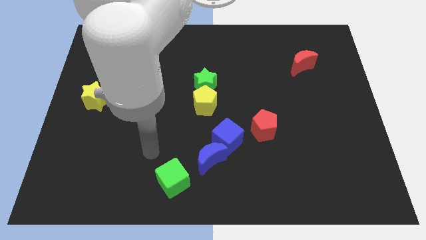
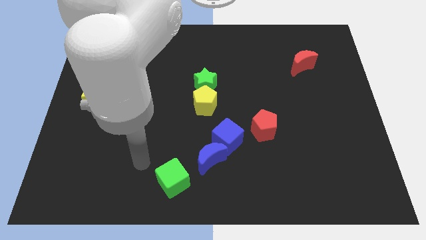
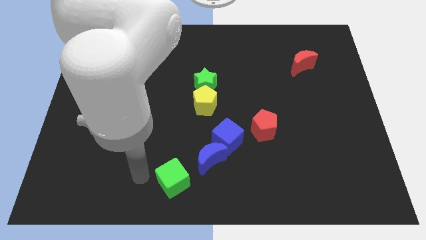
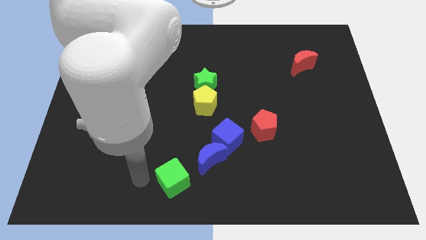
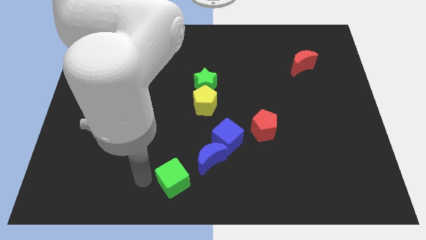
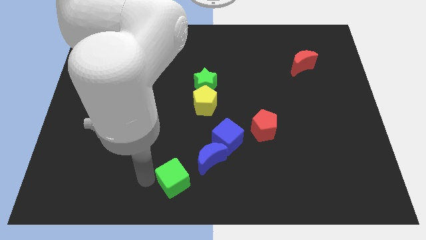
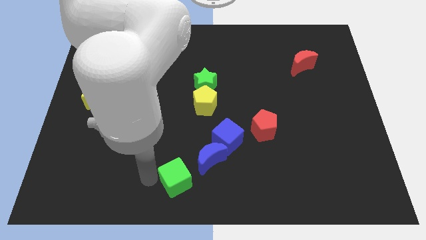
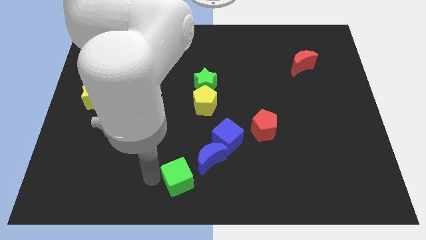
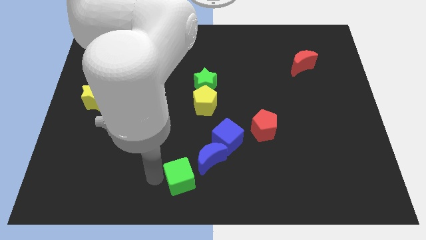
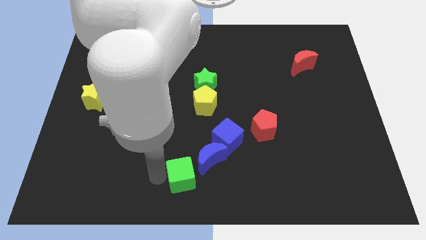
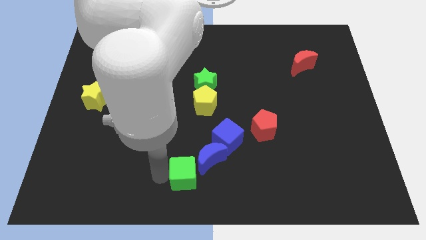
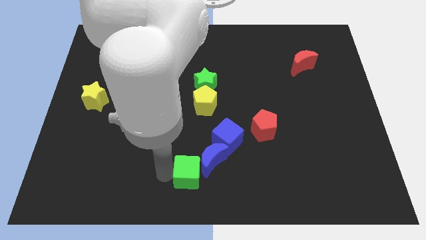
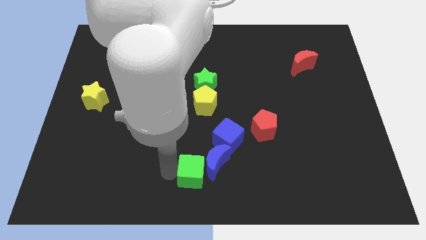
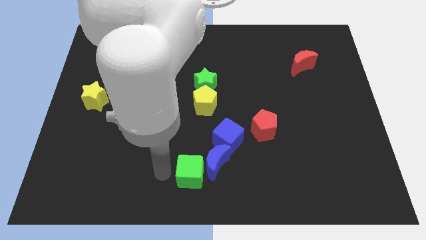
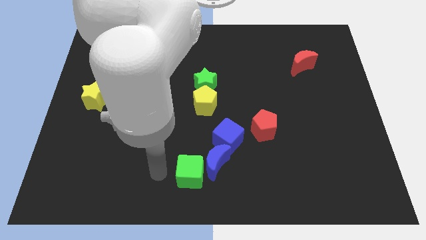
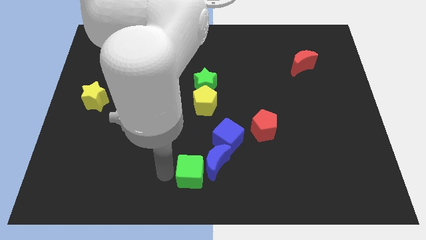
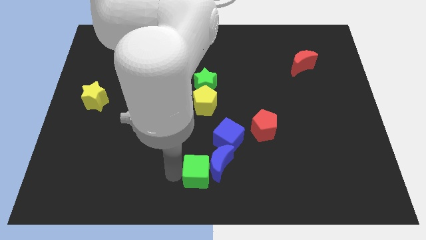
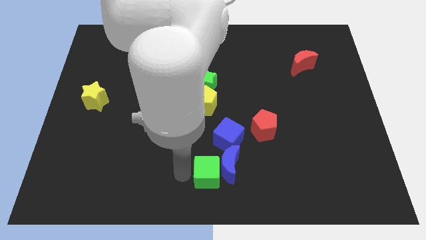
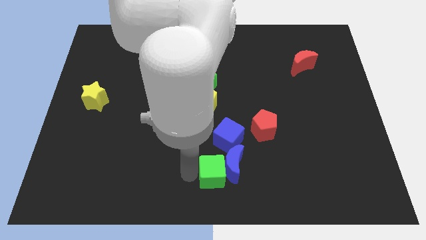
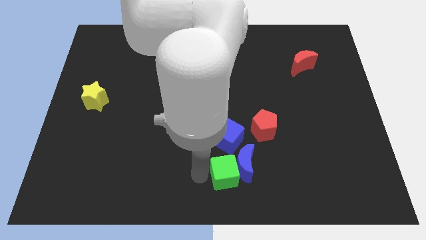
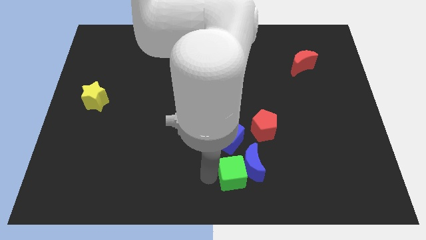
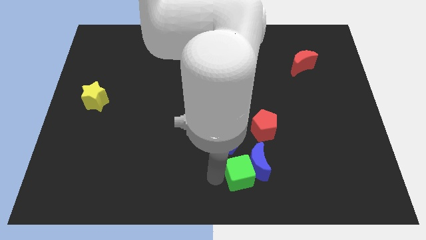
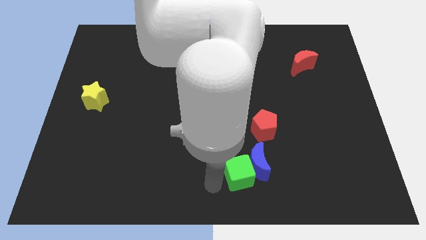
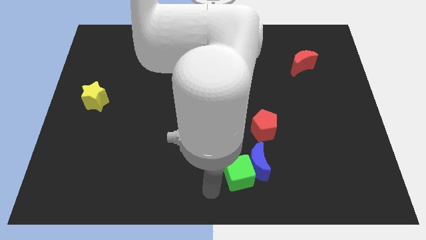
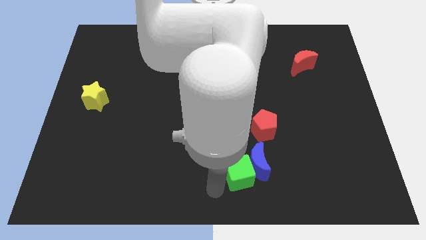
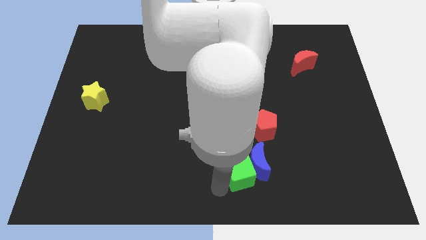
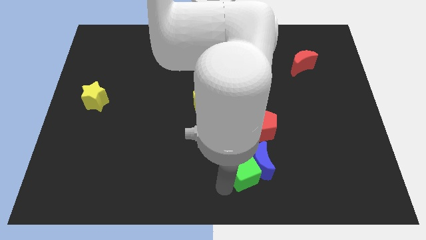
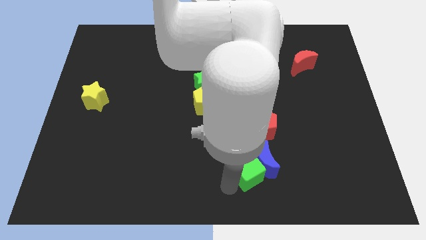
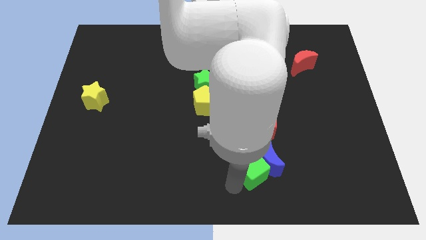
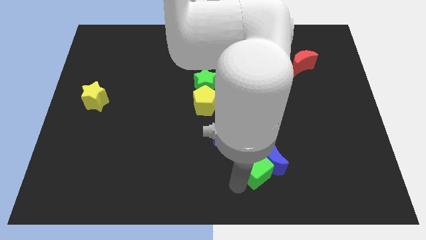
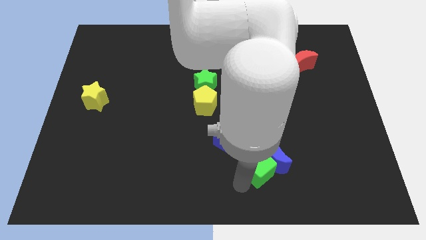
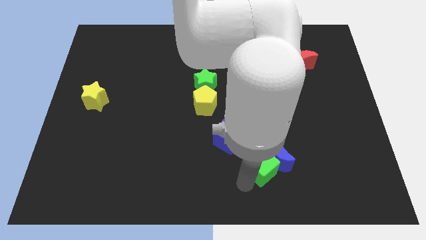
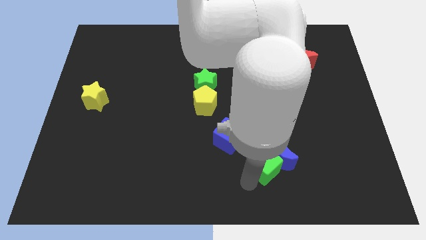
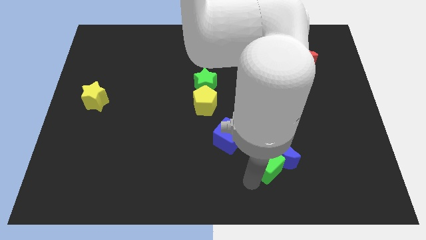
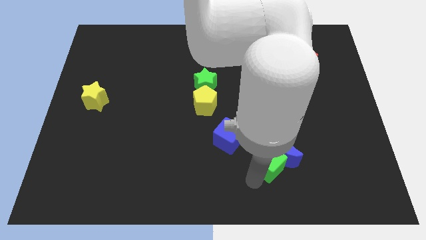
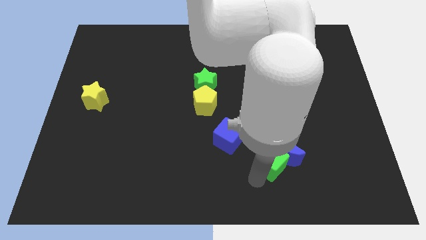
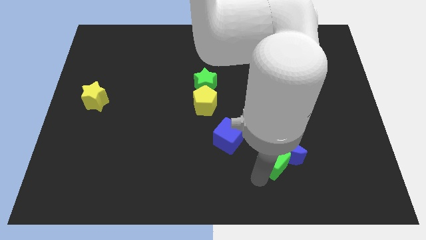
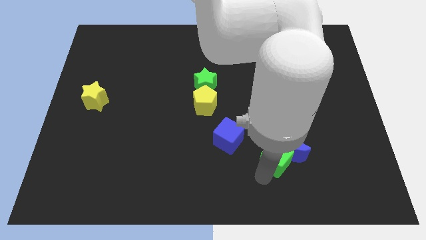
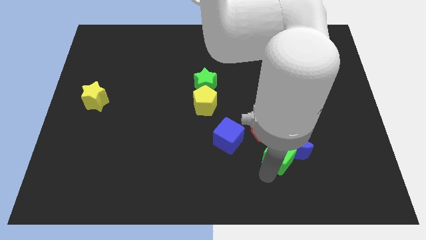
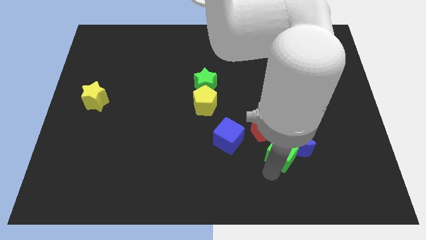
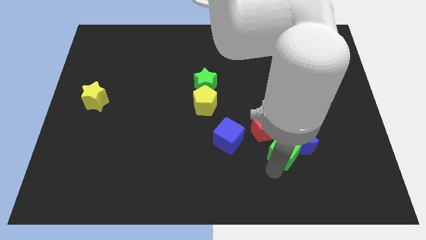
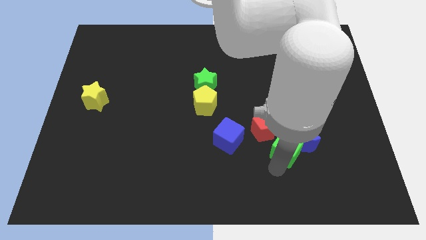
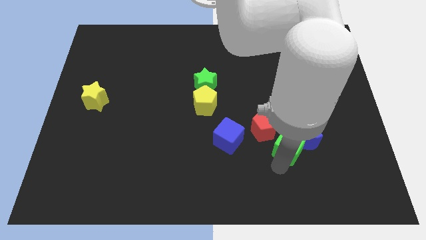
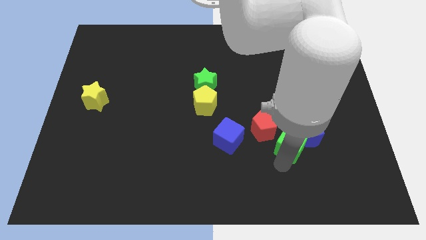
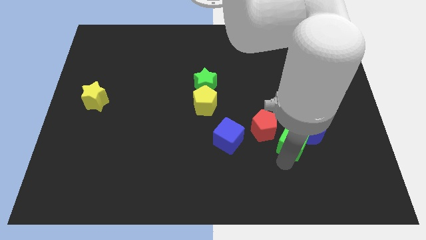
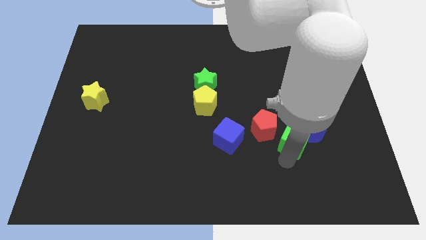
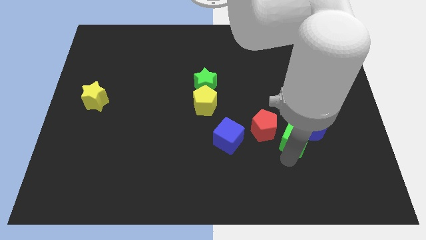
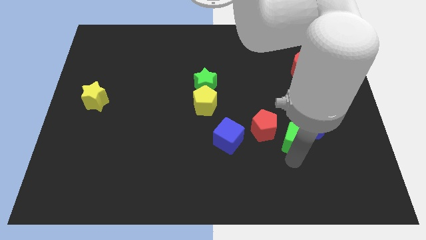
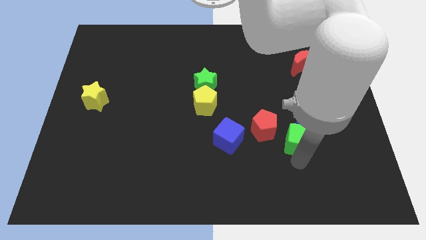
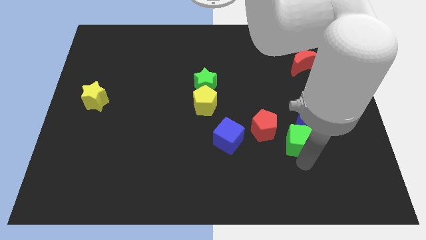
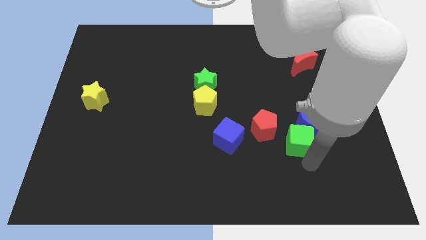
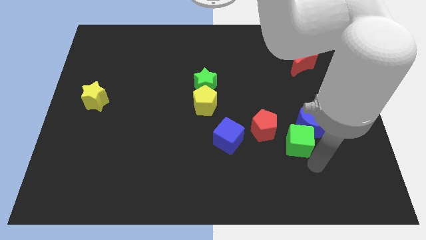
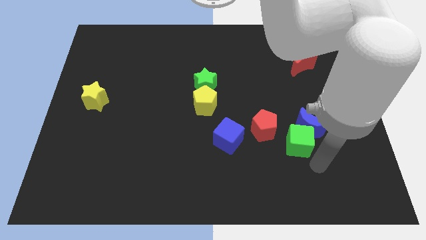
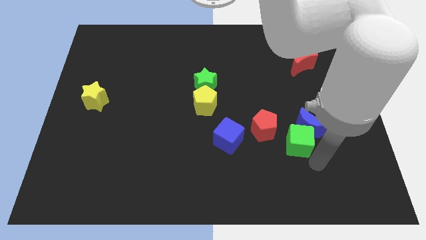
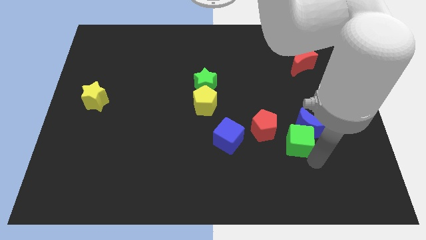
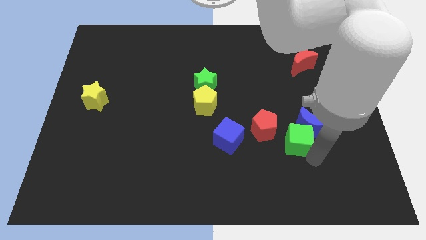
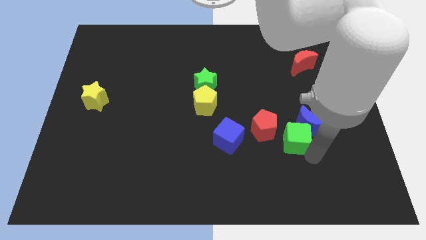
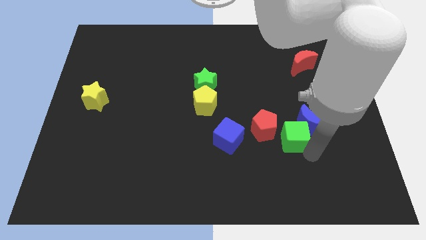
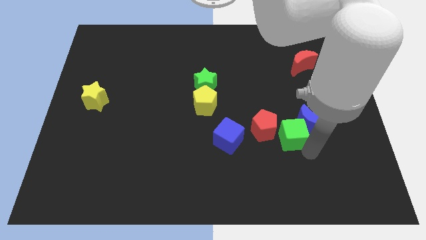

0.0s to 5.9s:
push the green cube up and to the right diagonally

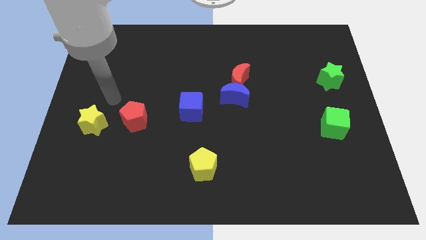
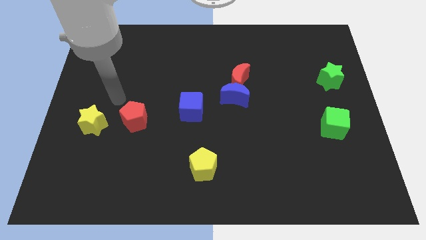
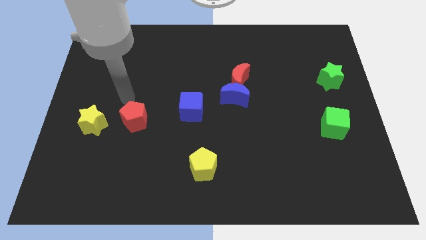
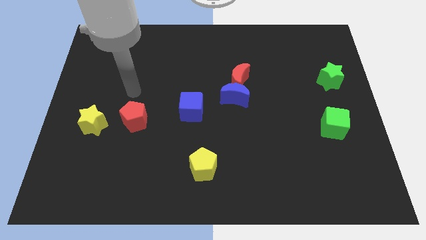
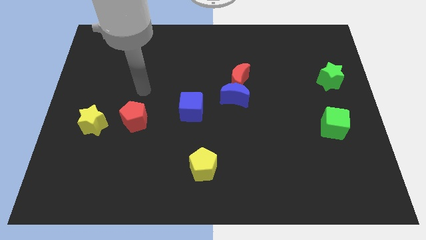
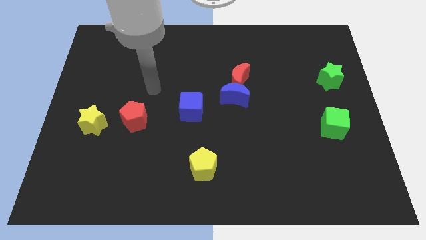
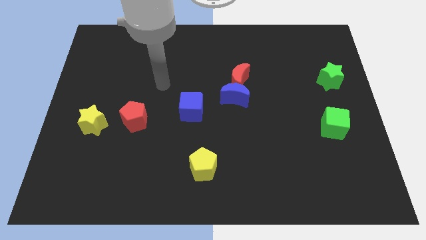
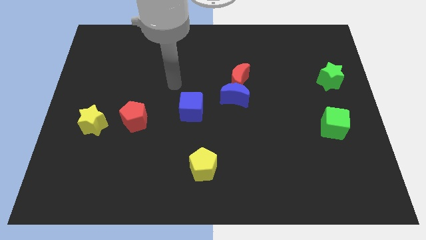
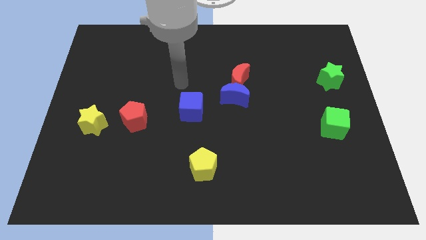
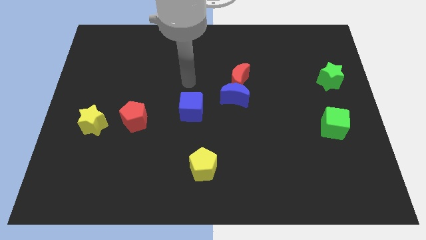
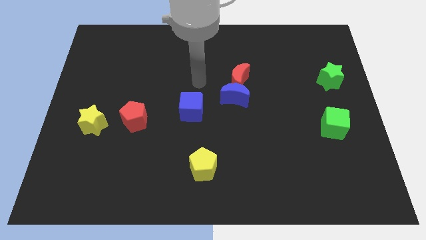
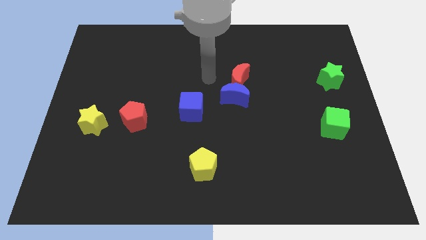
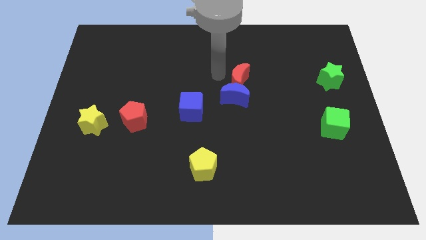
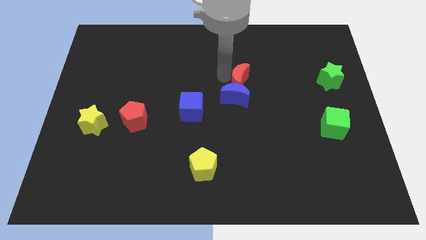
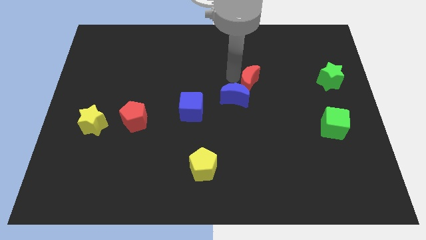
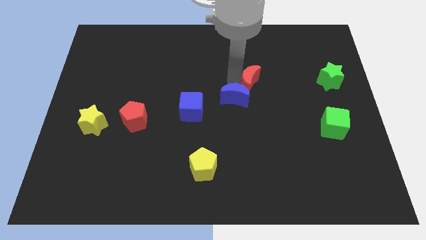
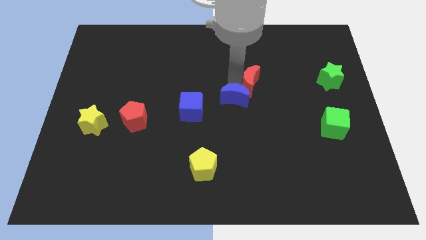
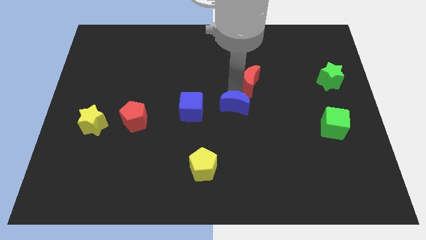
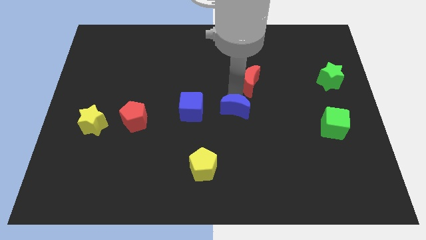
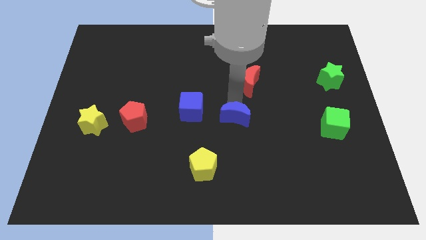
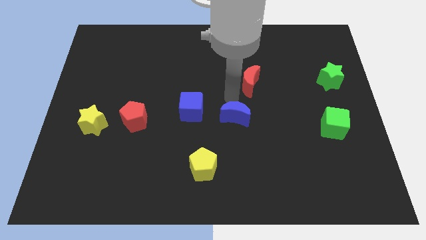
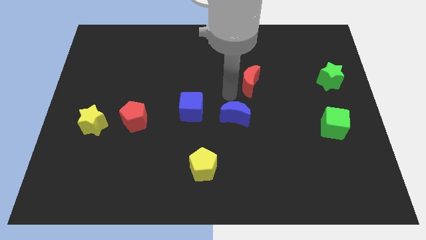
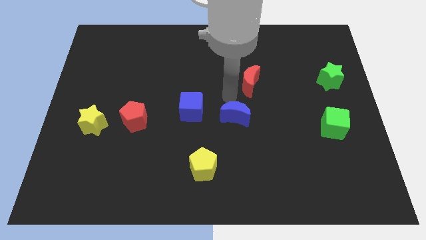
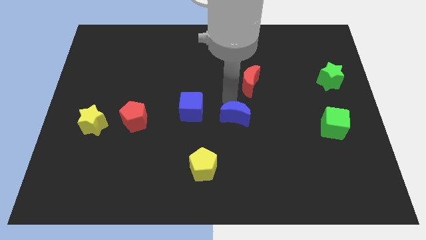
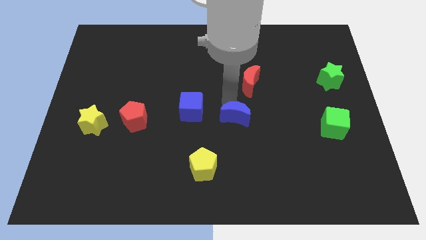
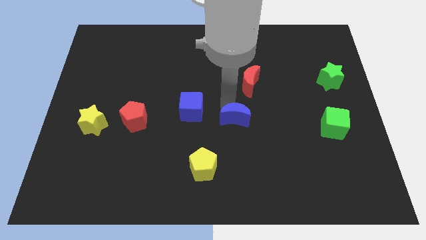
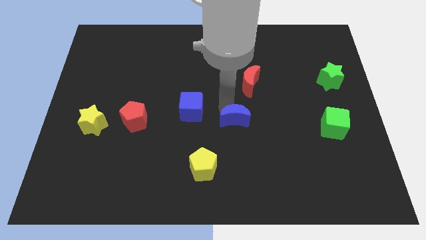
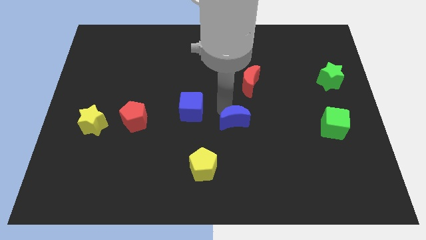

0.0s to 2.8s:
slide the blue moon slightly down
